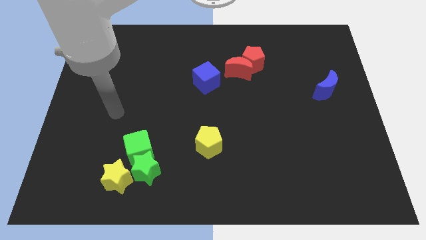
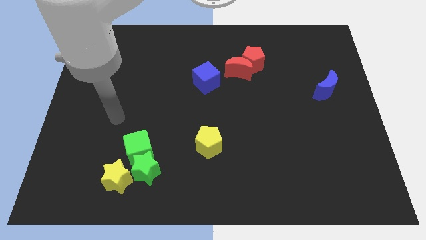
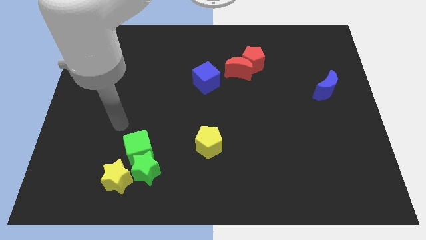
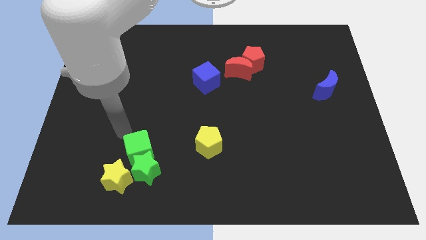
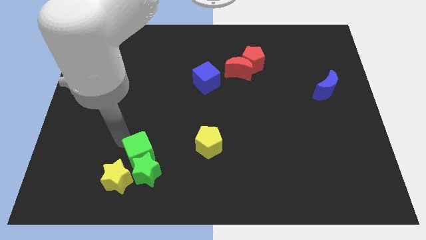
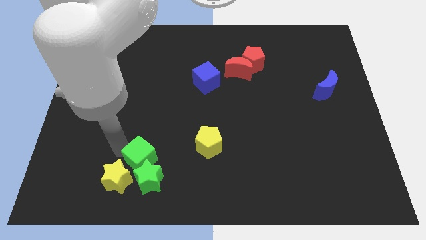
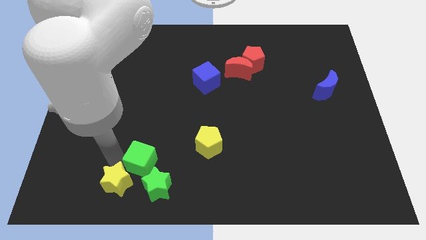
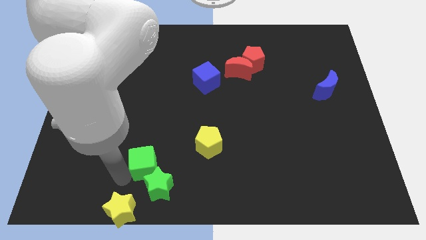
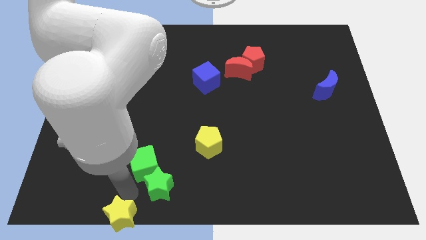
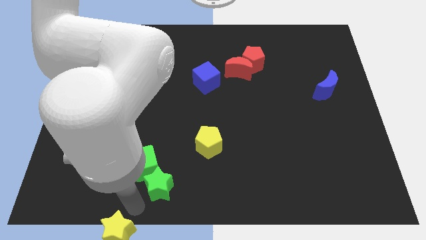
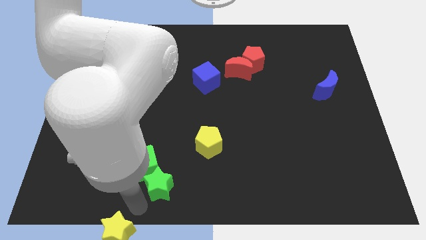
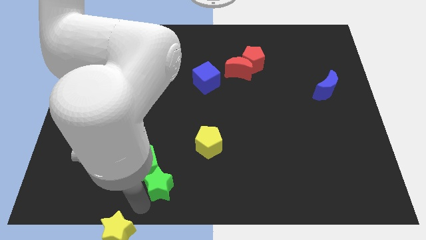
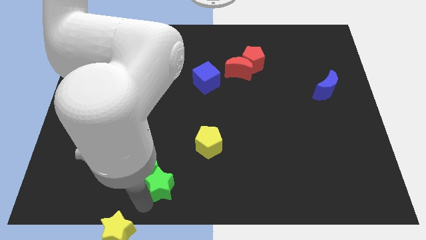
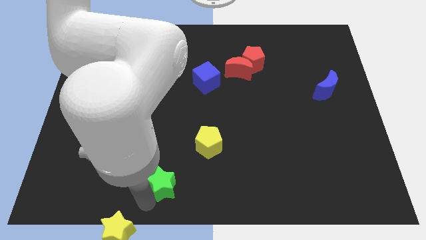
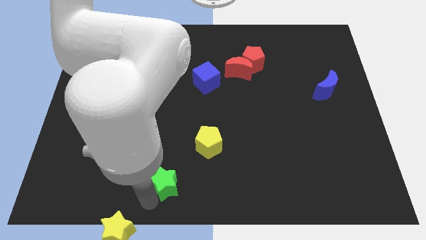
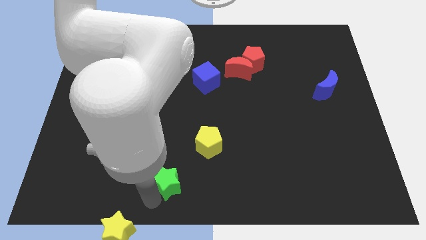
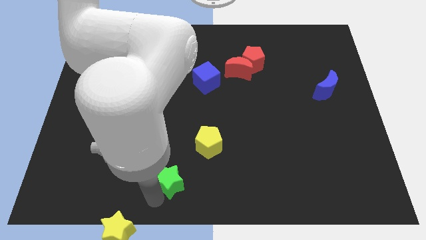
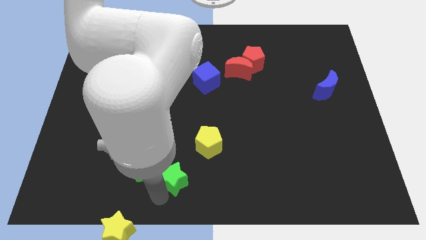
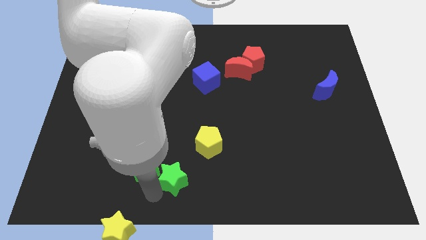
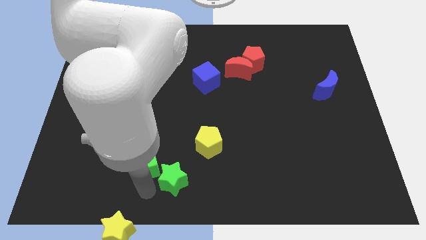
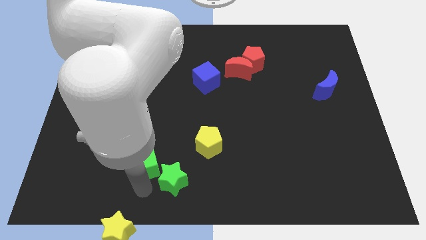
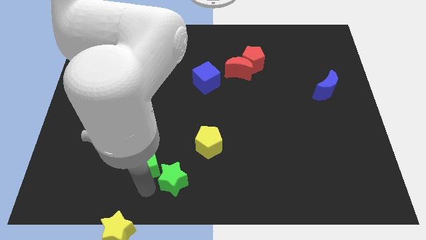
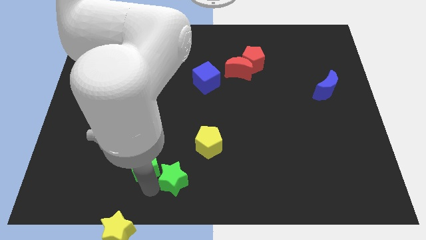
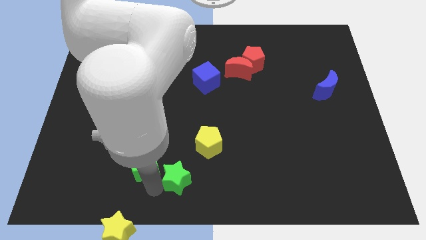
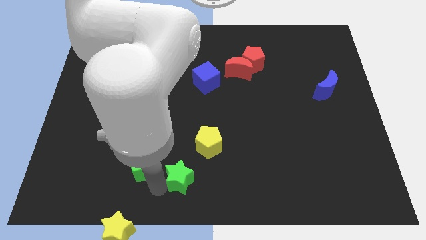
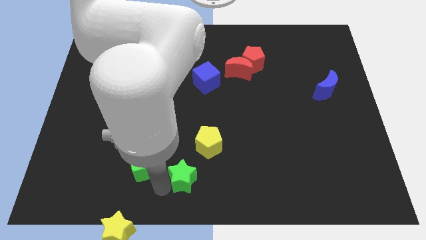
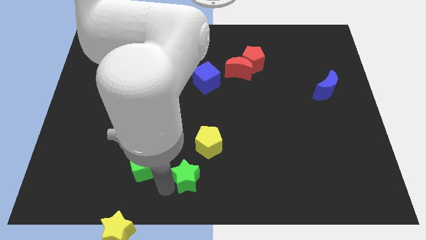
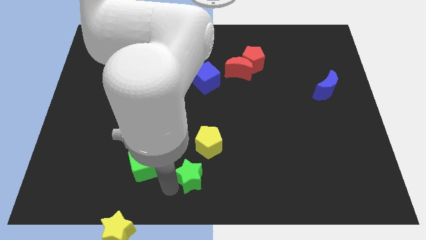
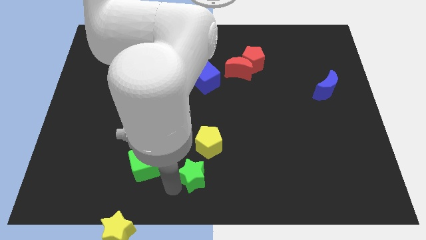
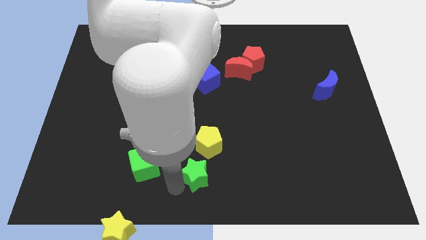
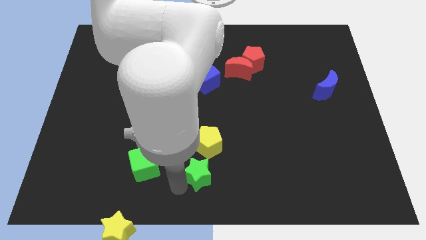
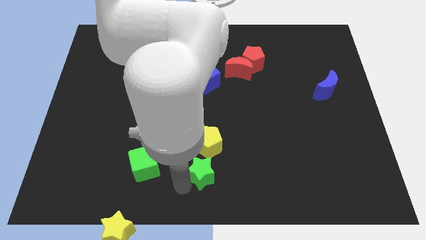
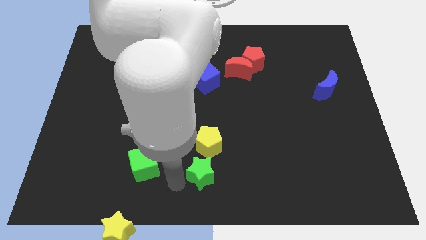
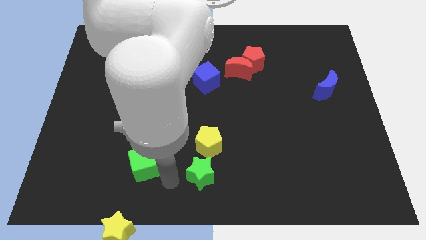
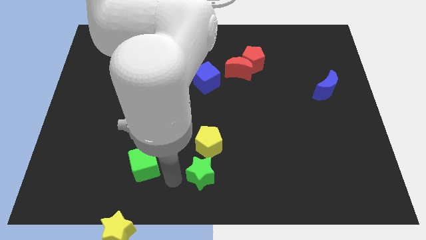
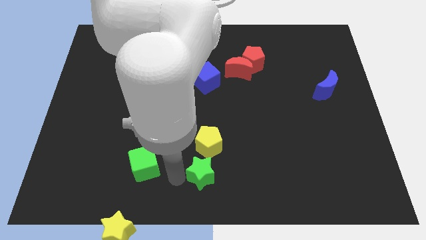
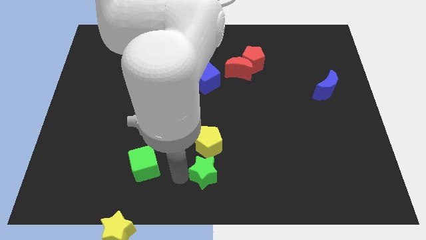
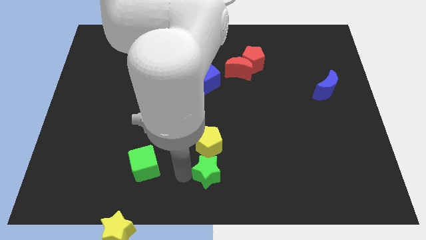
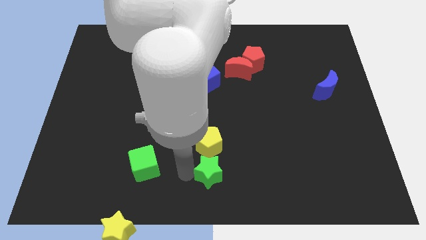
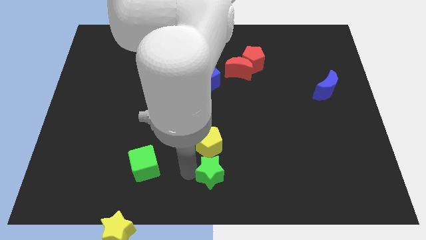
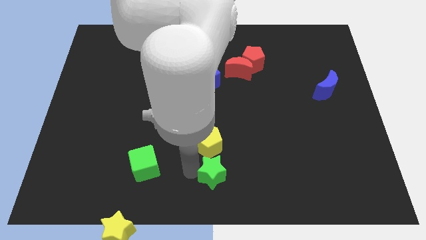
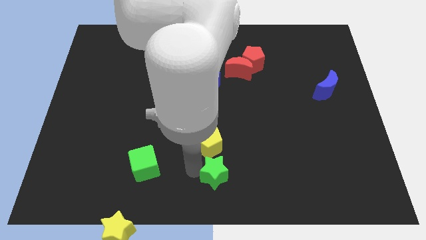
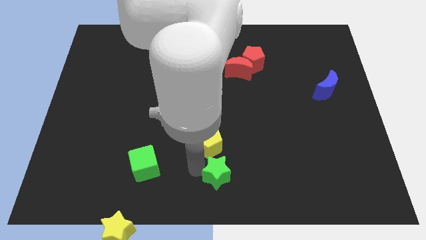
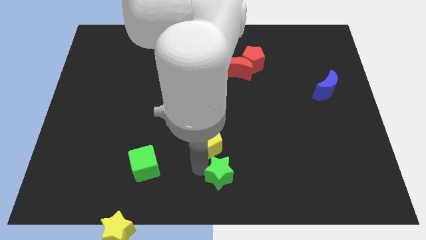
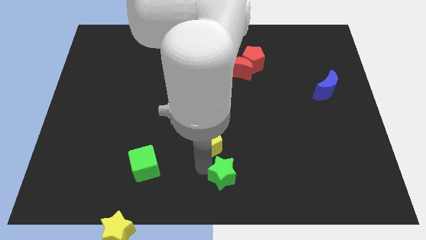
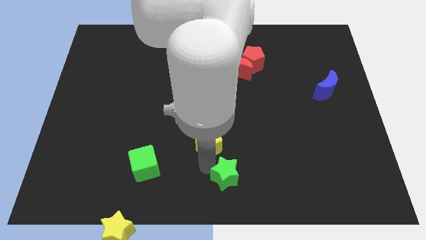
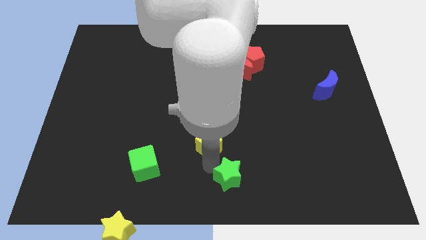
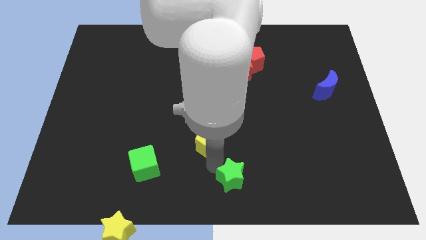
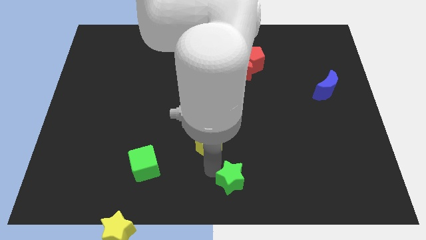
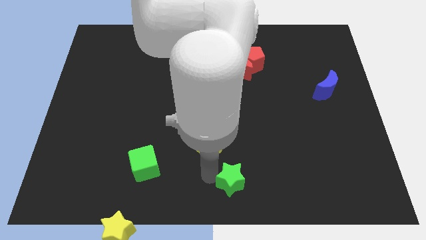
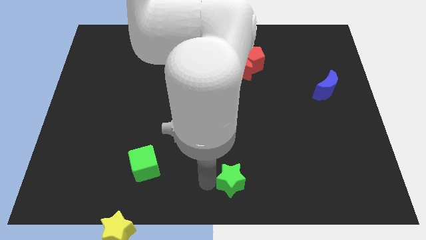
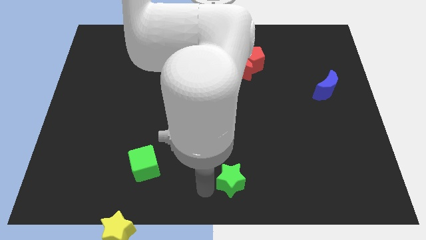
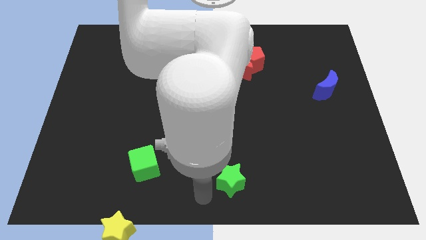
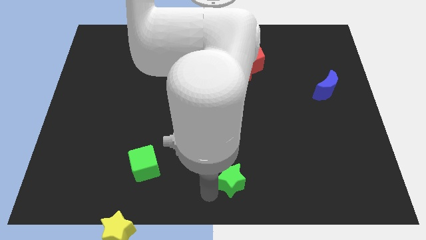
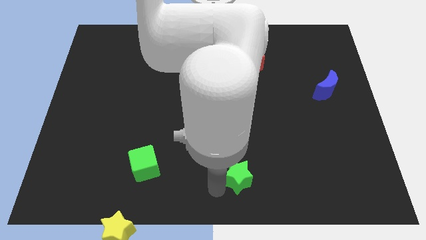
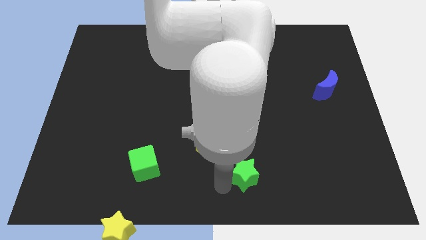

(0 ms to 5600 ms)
move the green star to the right

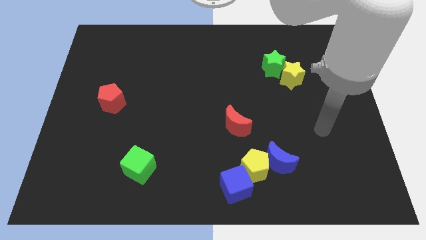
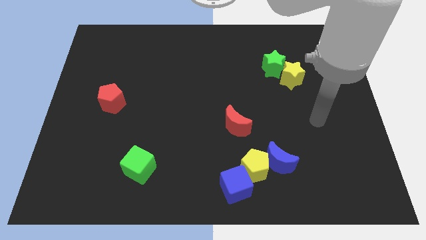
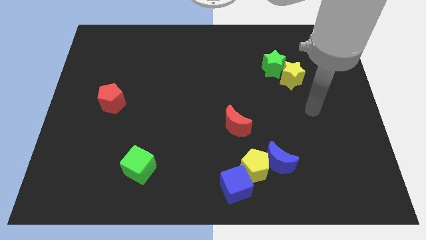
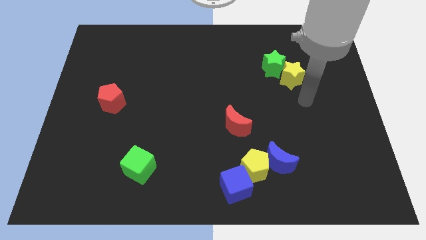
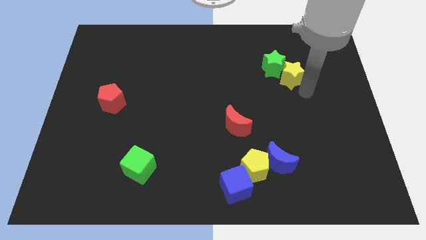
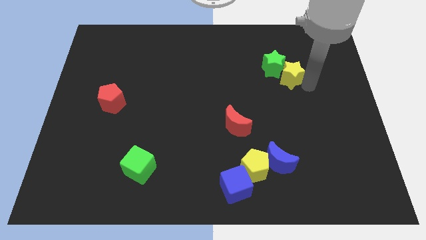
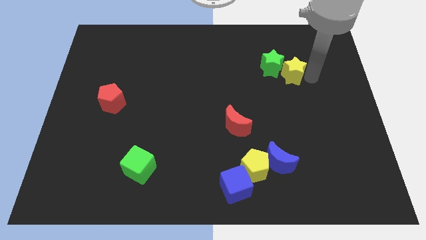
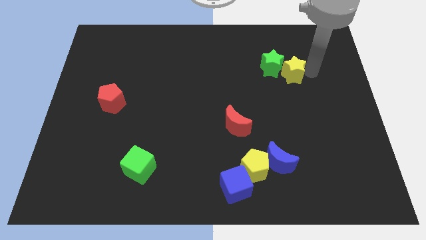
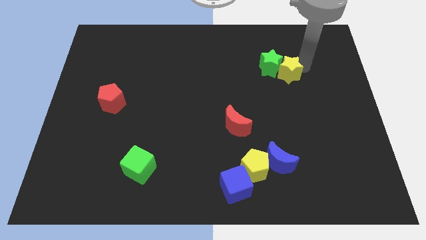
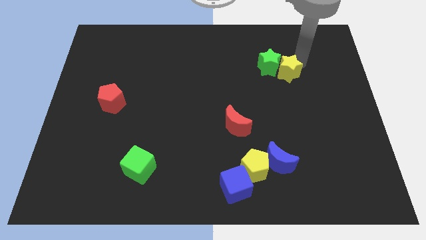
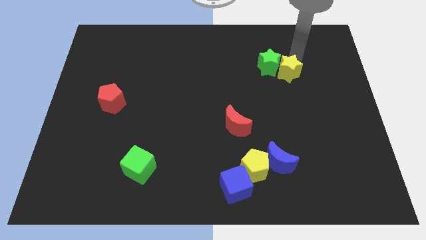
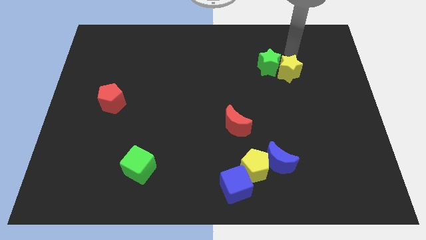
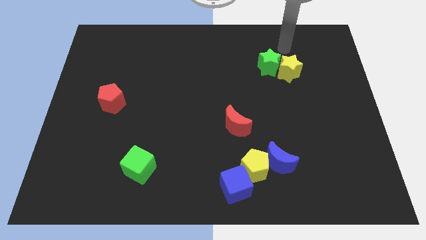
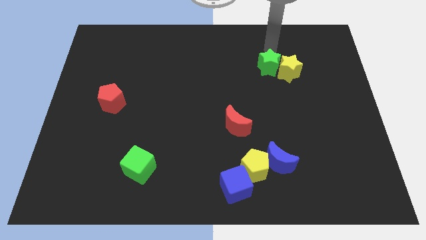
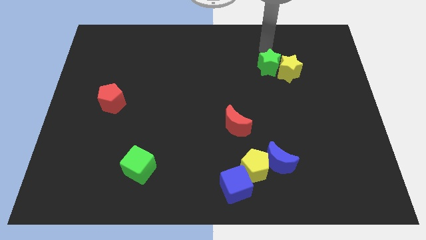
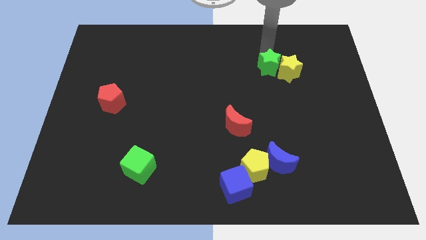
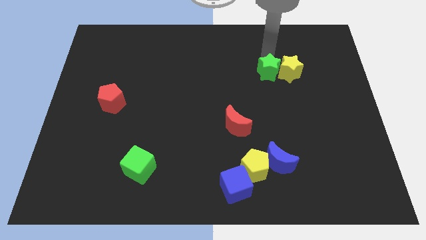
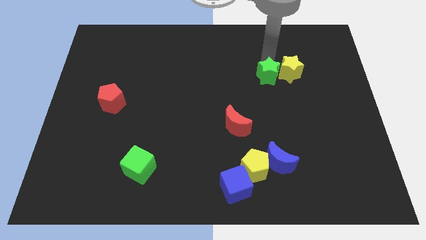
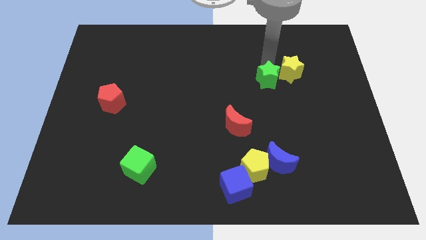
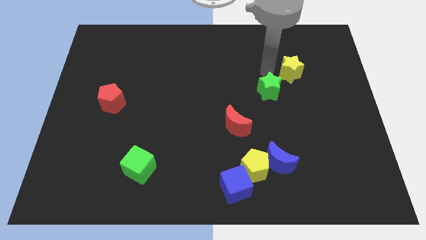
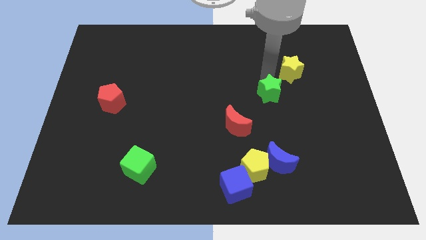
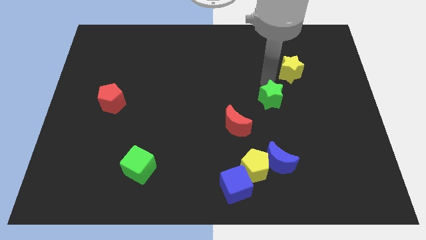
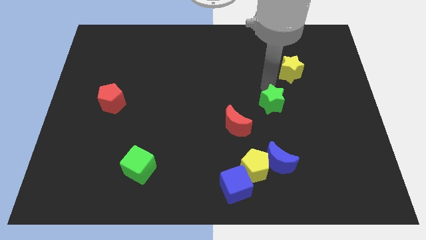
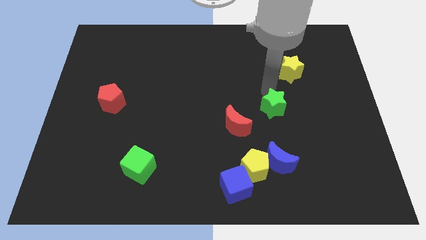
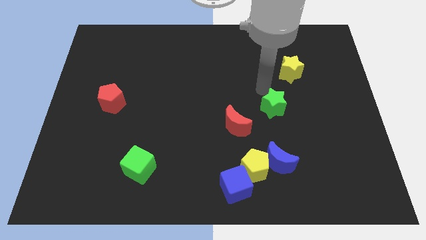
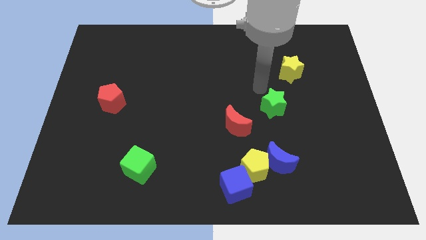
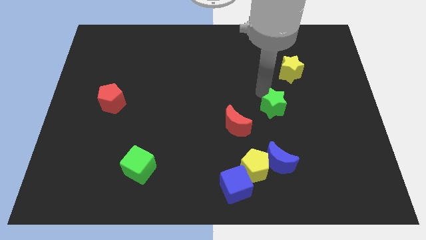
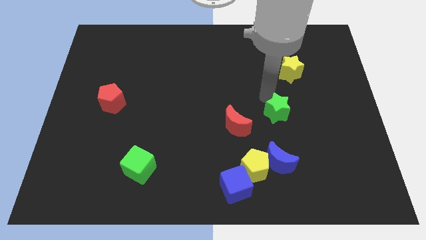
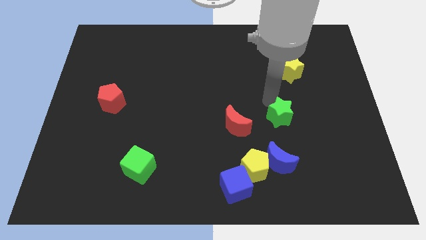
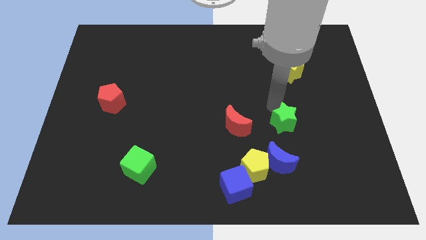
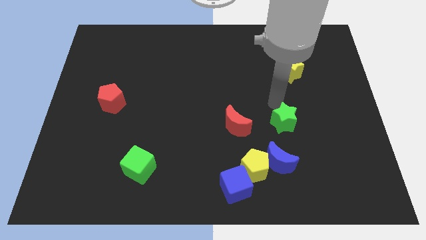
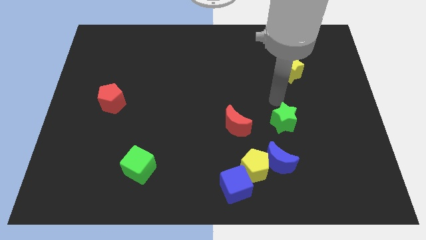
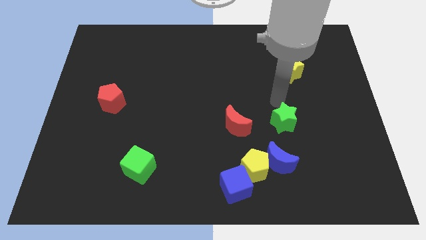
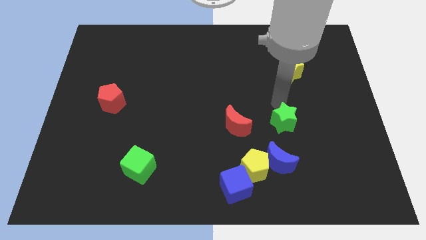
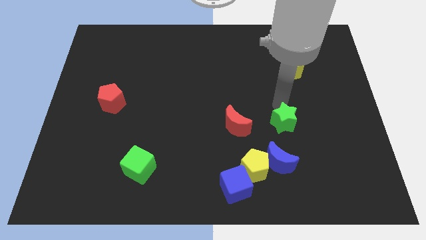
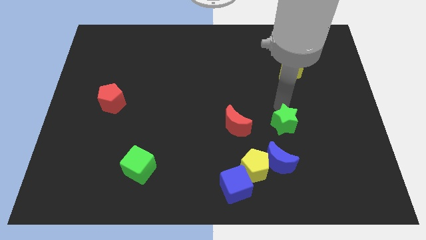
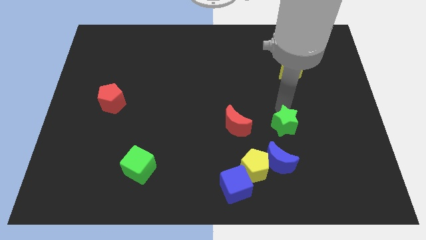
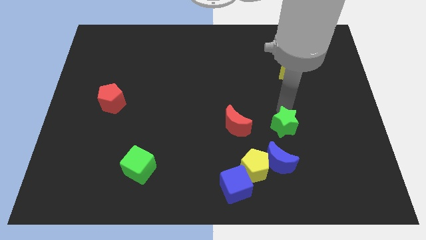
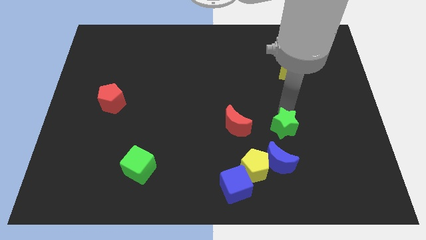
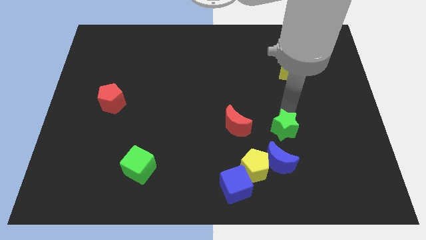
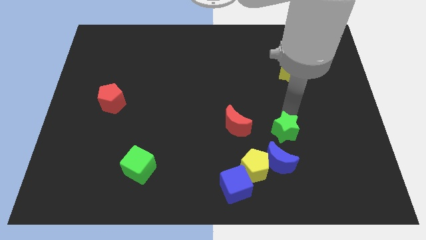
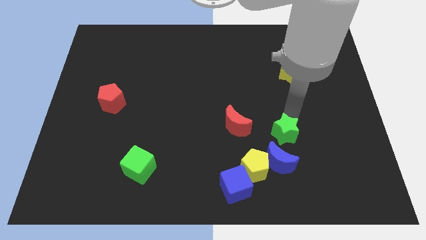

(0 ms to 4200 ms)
slide the green star downwards
